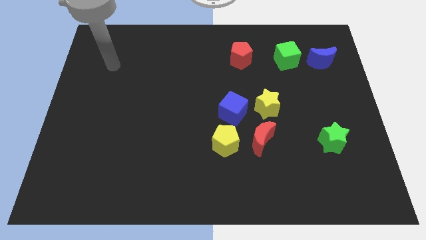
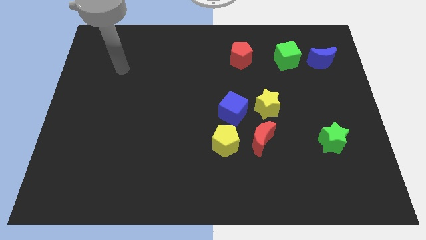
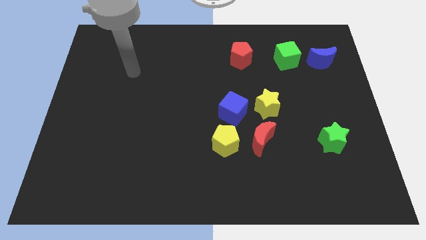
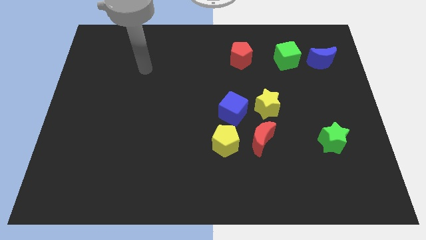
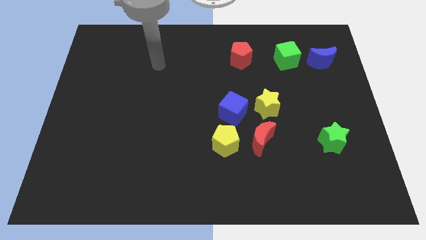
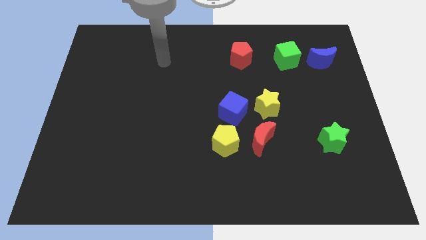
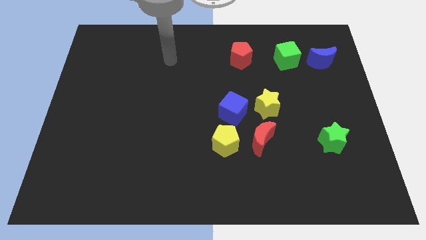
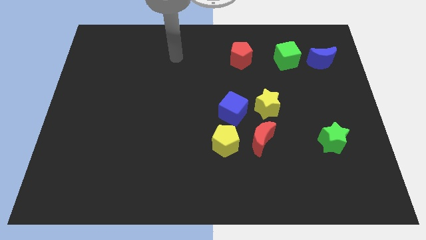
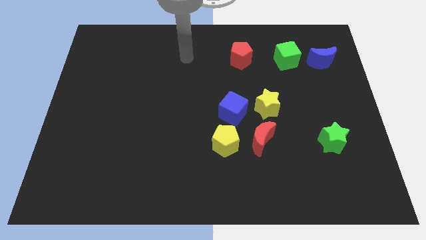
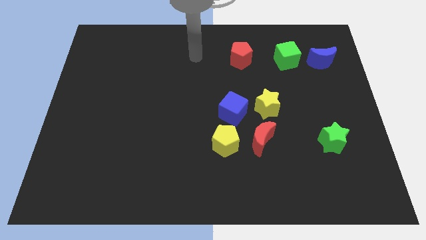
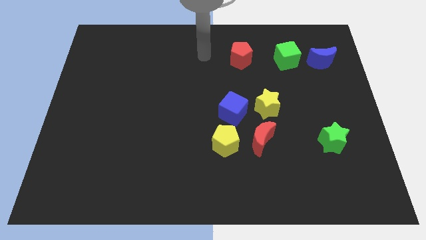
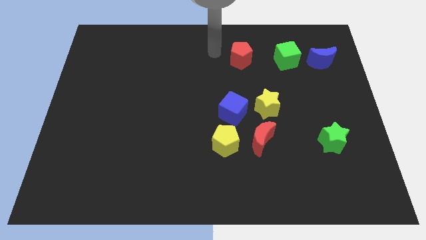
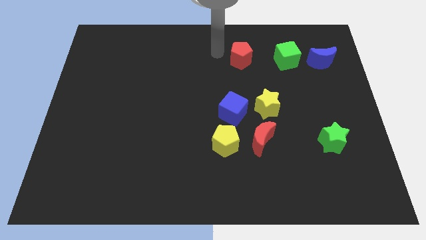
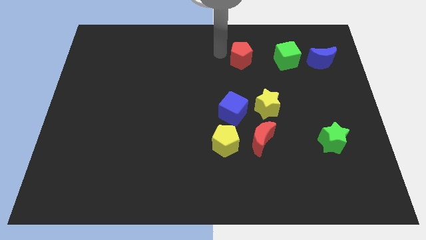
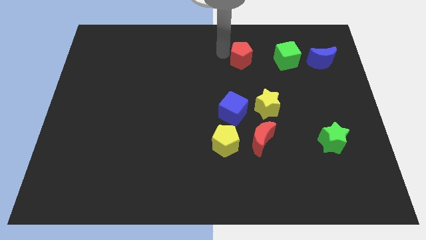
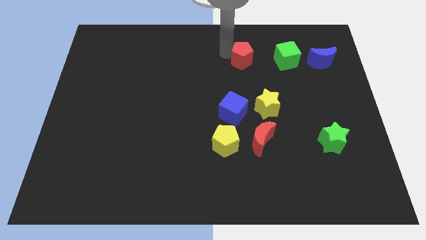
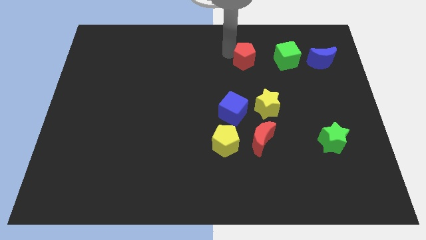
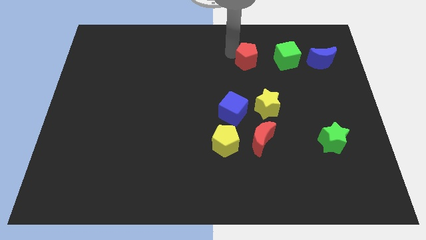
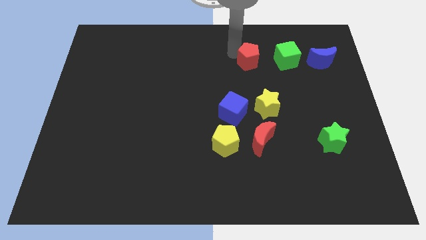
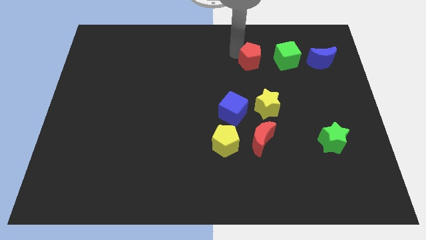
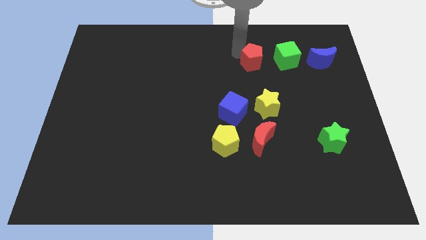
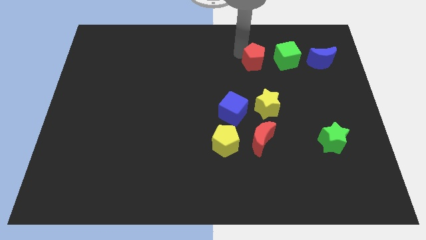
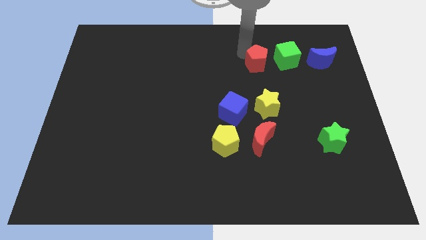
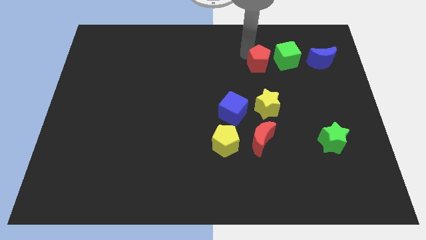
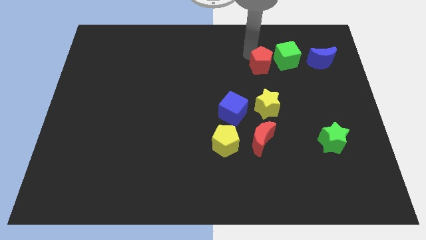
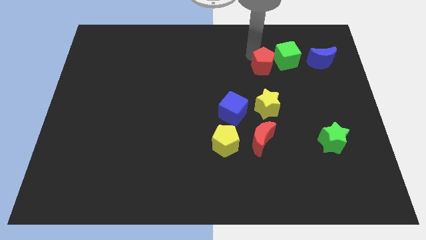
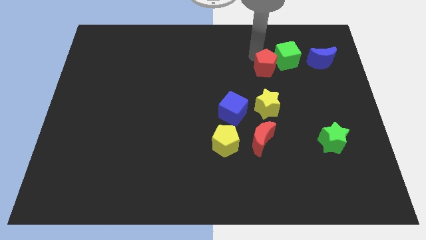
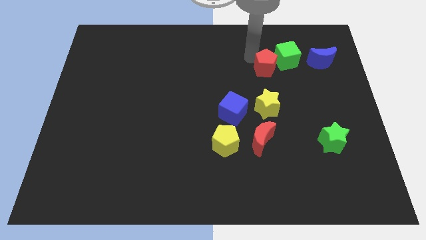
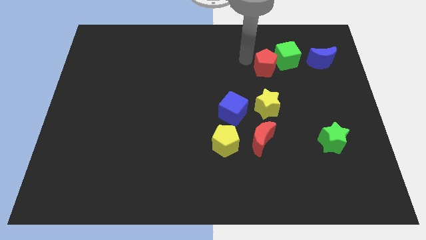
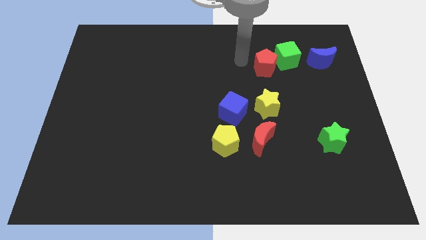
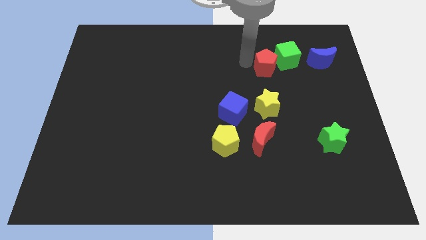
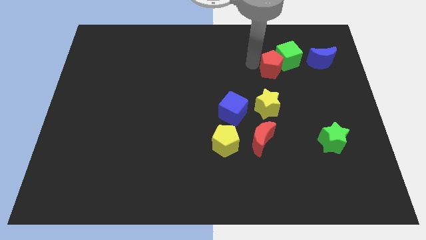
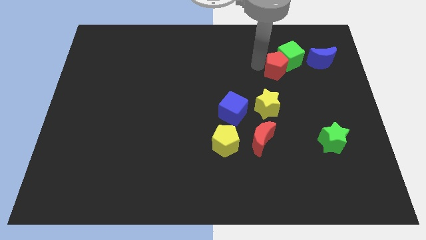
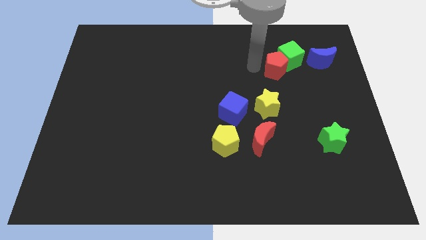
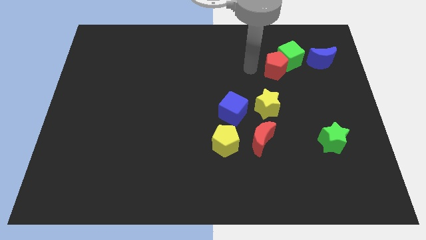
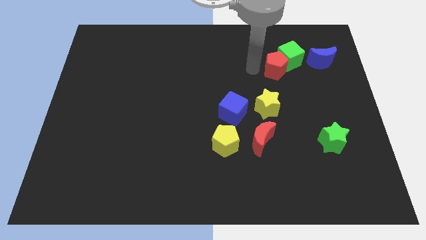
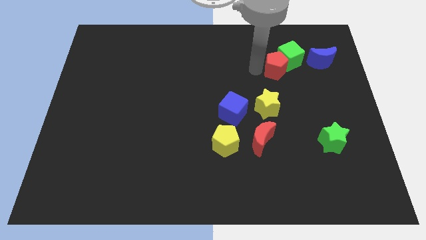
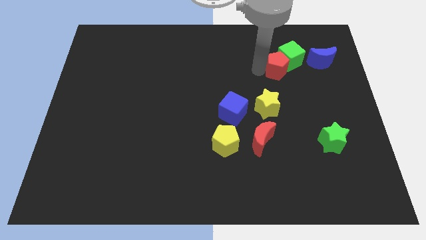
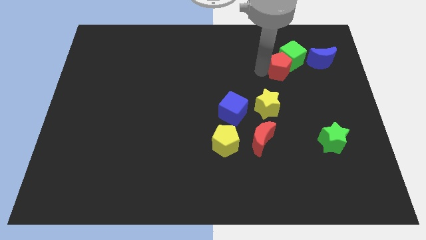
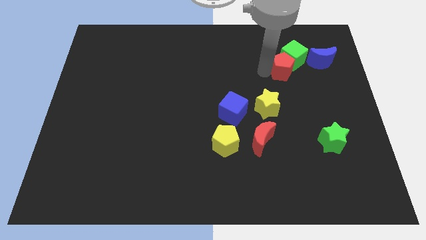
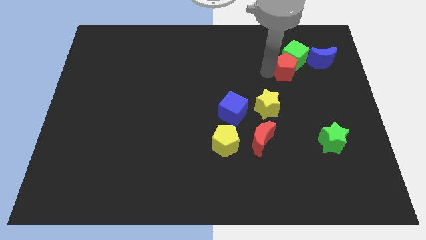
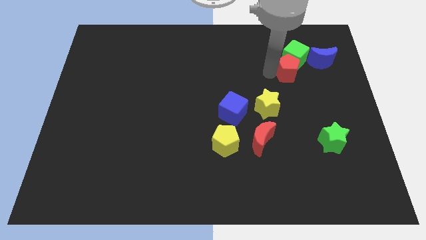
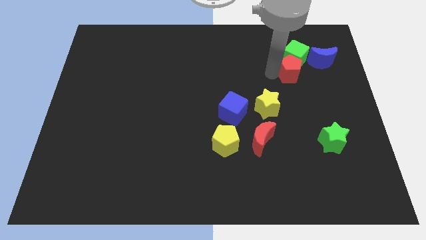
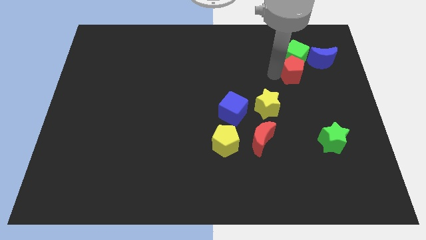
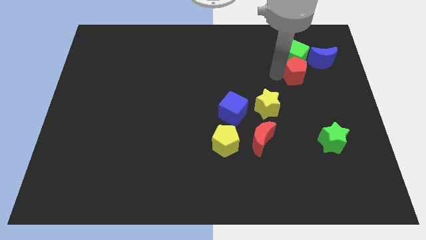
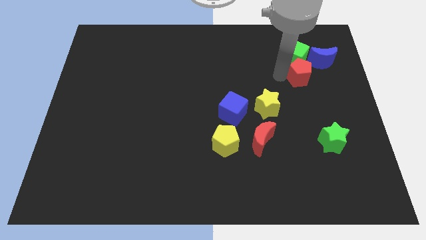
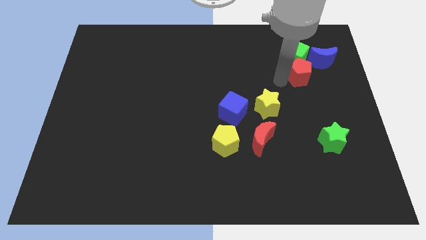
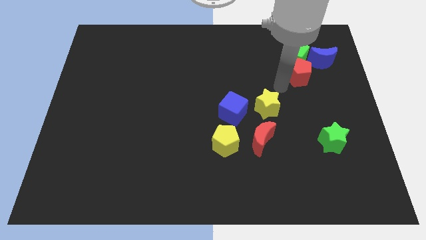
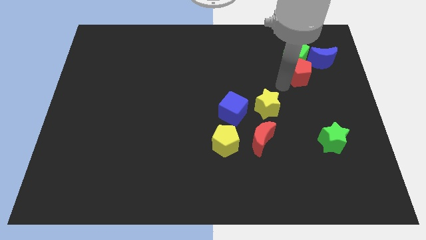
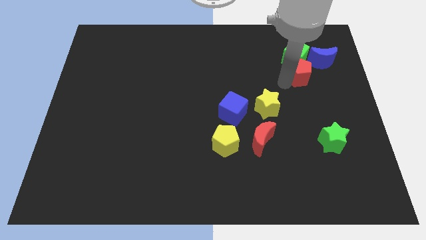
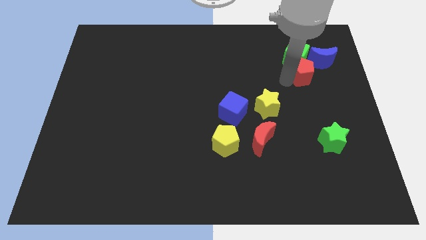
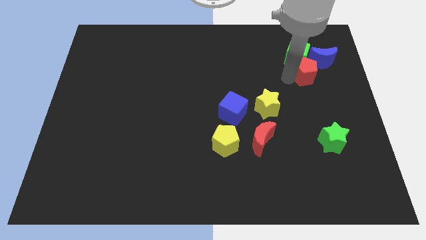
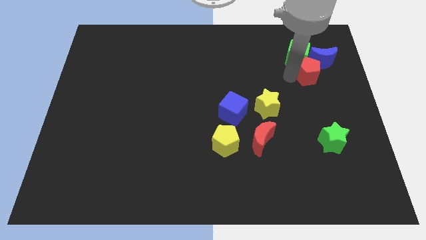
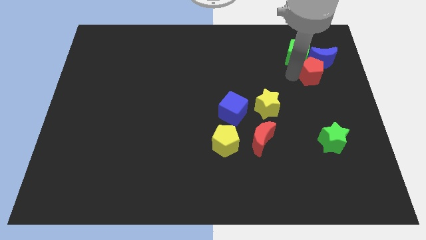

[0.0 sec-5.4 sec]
slide the red pentagon to the blue moon

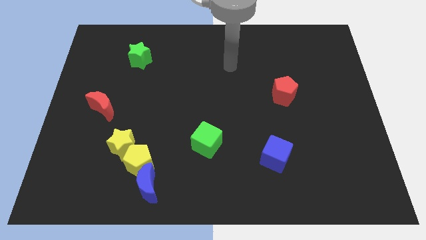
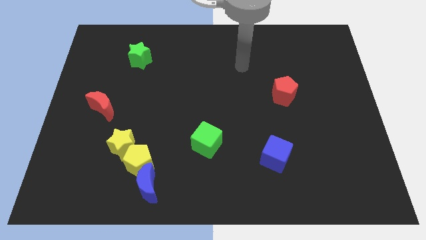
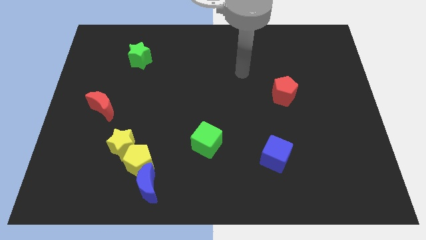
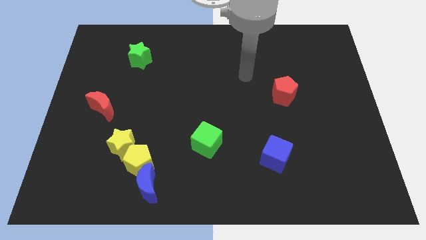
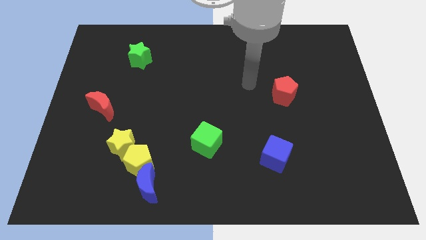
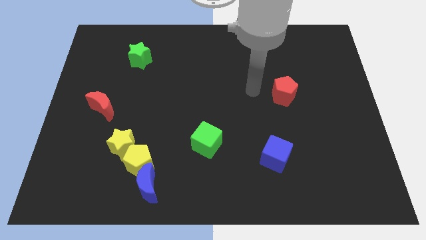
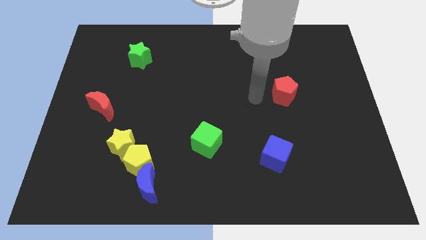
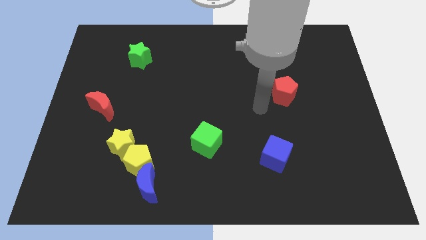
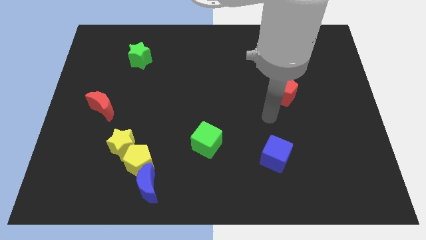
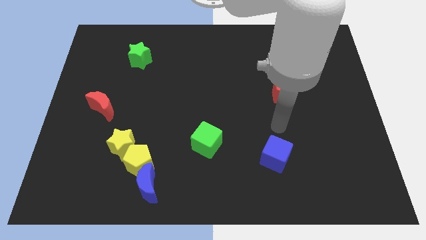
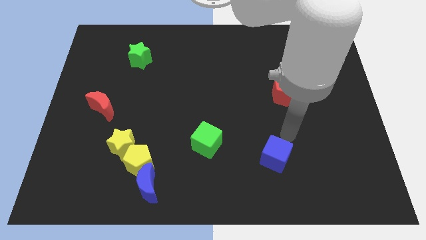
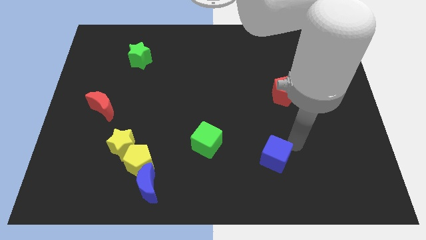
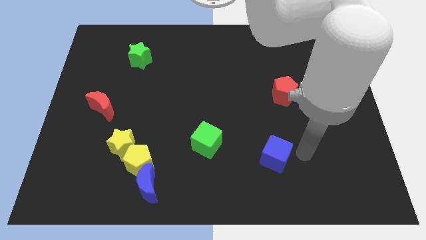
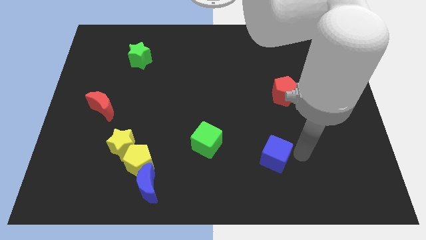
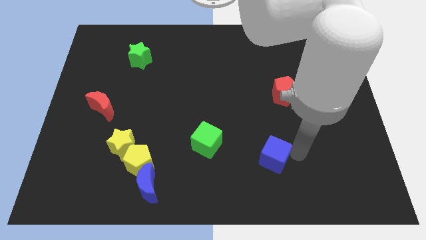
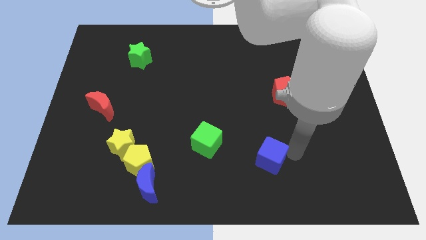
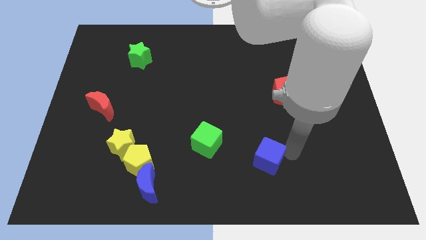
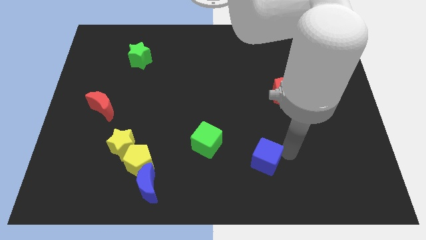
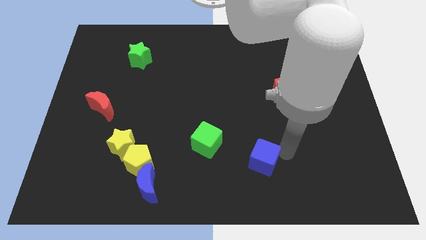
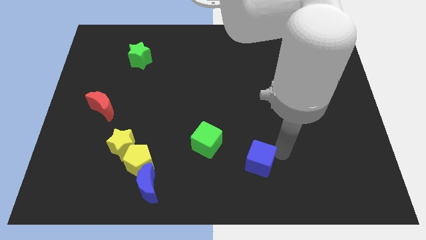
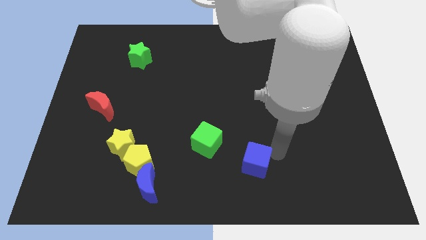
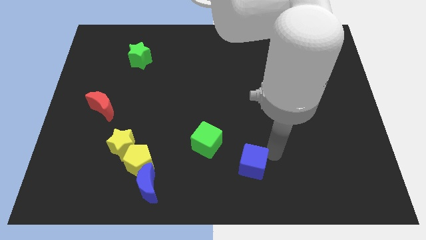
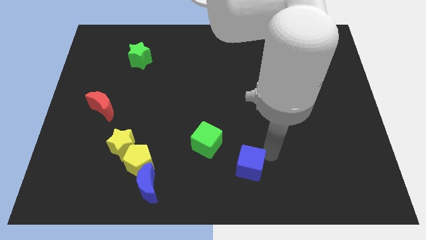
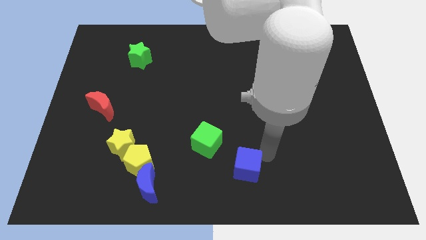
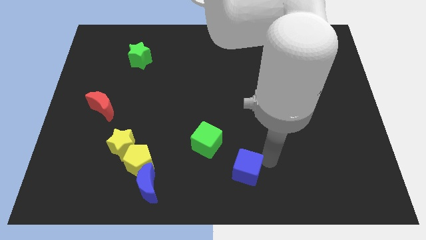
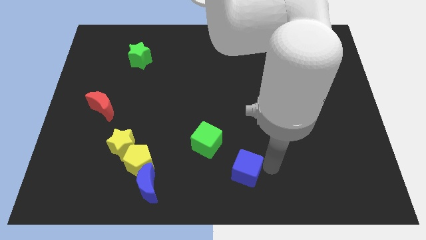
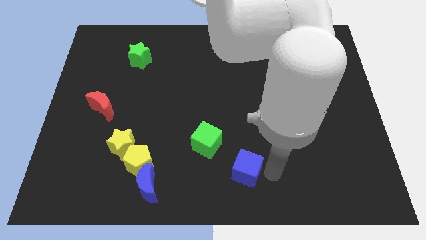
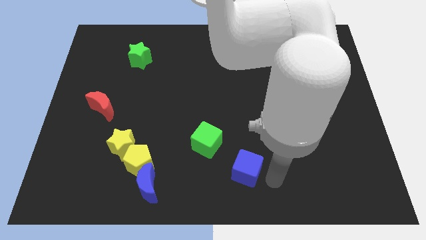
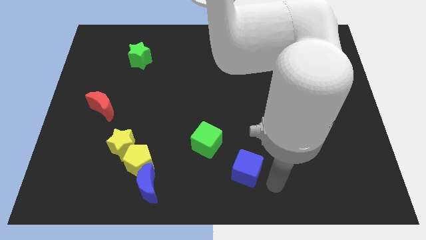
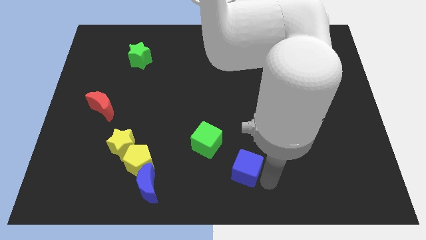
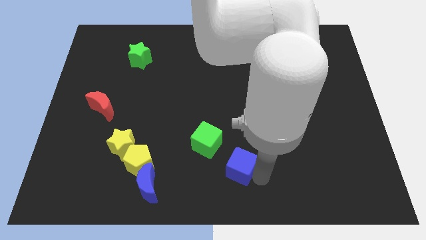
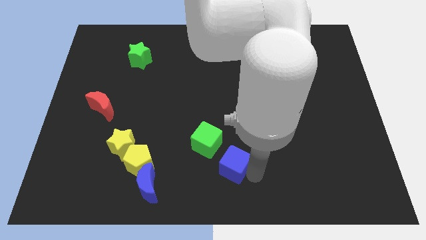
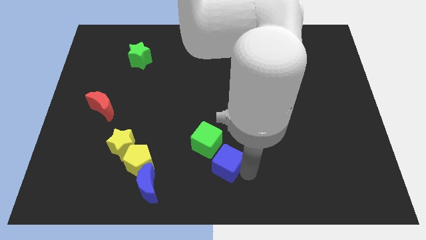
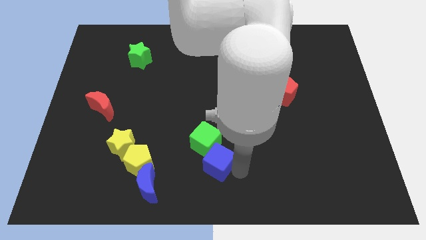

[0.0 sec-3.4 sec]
move the blue cube next to the green cube
